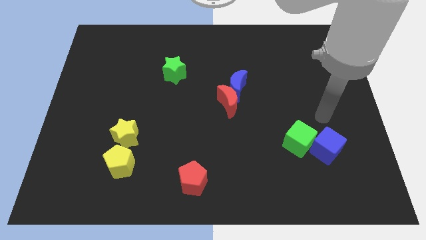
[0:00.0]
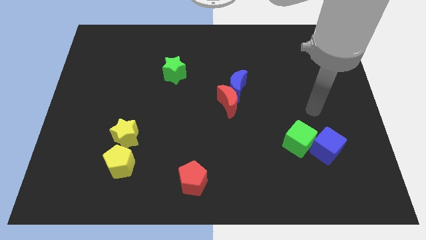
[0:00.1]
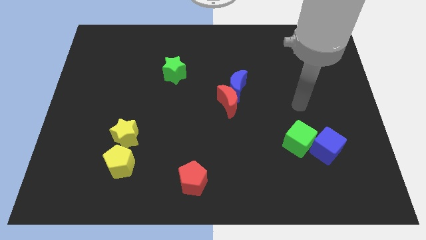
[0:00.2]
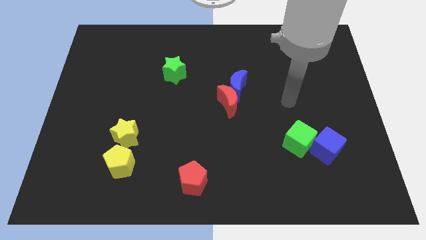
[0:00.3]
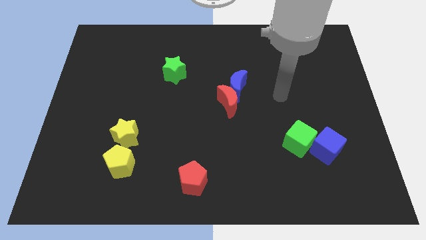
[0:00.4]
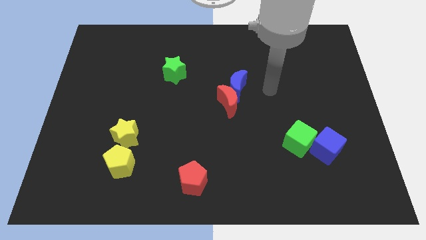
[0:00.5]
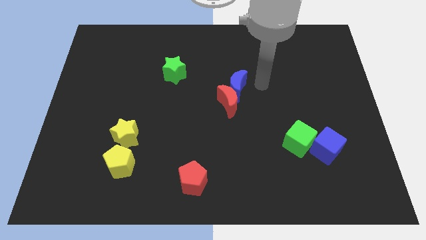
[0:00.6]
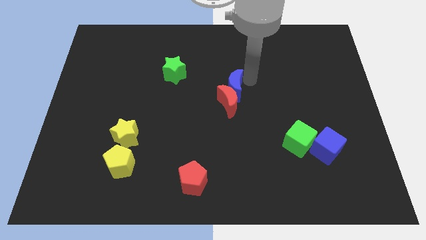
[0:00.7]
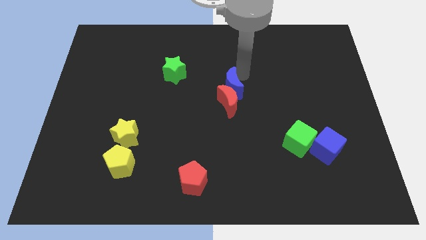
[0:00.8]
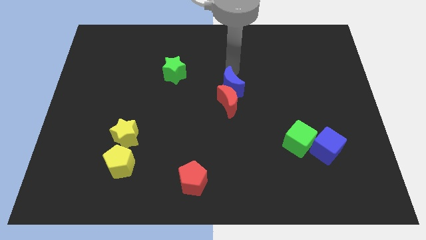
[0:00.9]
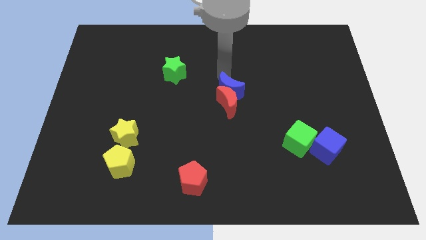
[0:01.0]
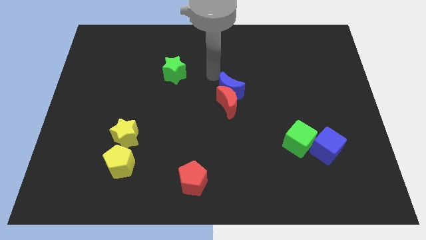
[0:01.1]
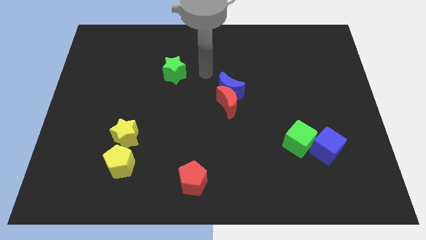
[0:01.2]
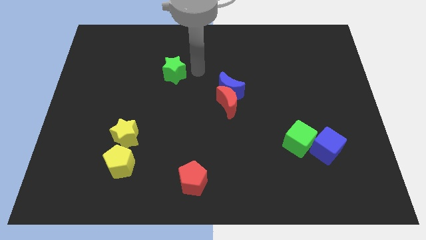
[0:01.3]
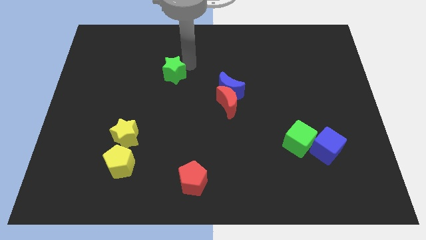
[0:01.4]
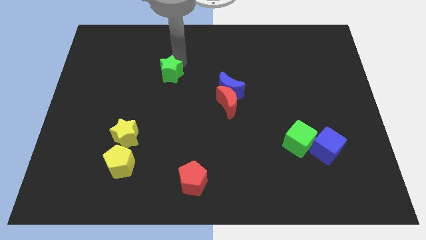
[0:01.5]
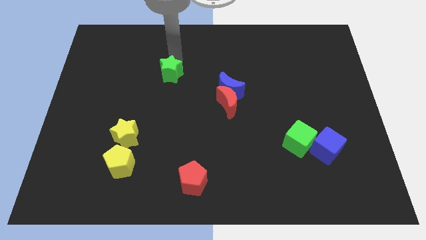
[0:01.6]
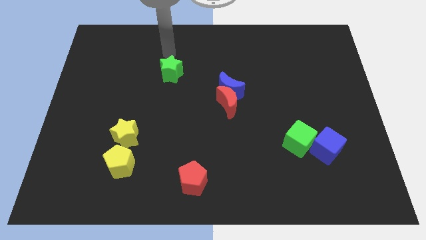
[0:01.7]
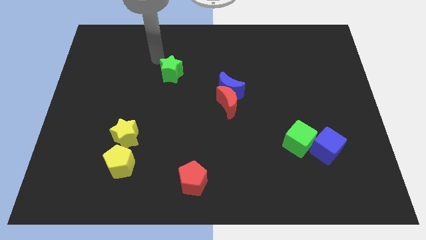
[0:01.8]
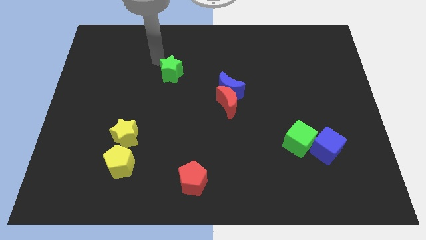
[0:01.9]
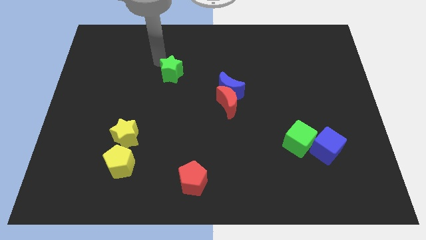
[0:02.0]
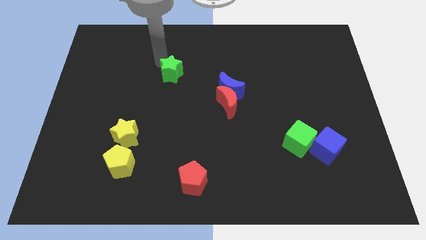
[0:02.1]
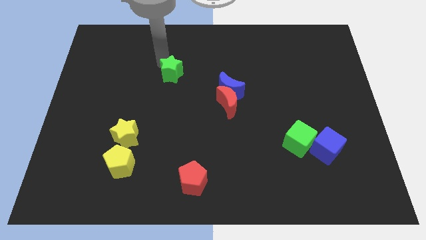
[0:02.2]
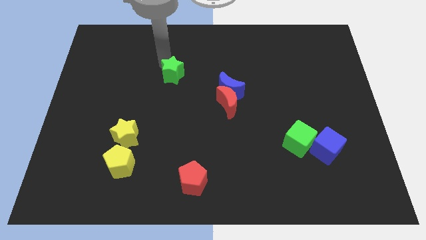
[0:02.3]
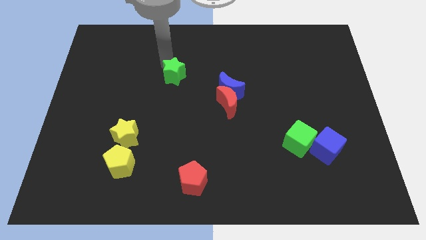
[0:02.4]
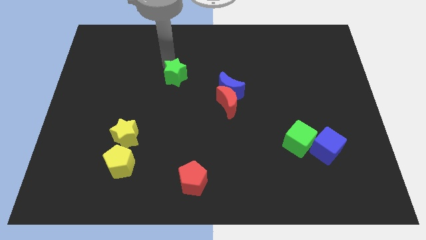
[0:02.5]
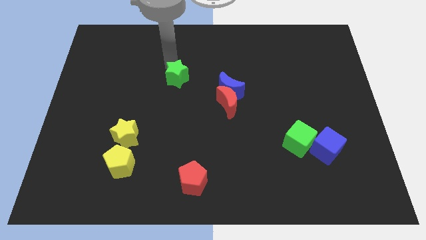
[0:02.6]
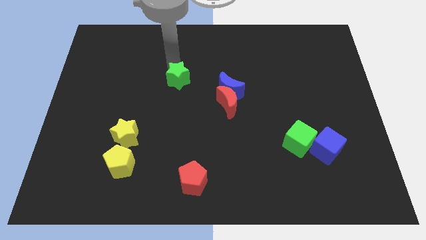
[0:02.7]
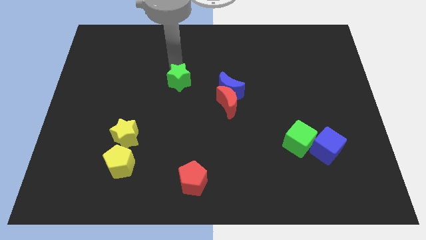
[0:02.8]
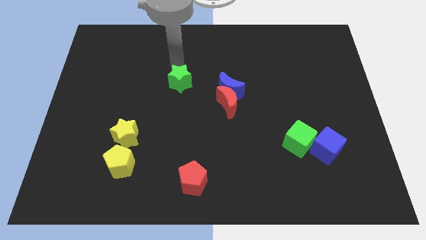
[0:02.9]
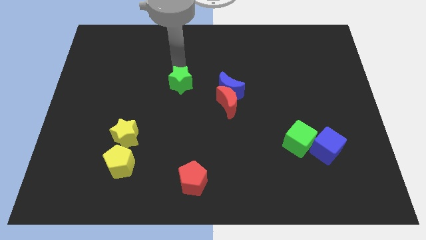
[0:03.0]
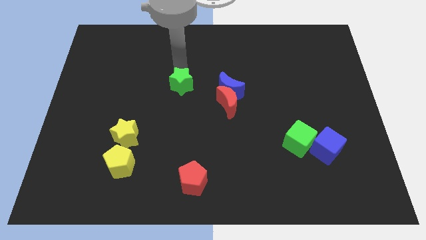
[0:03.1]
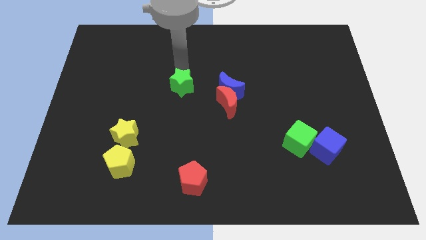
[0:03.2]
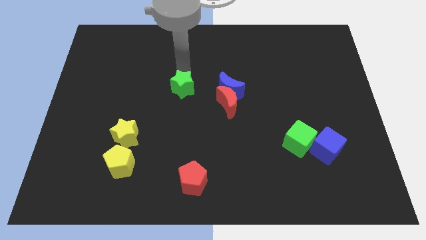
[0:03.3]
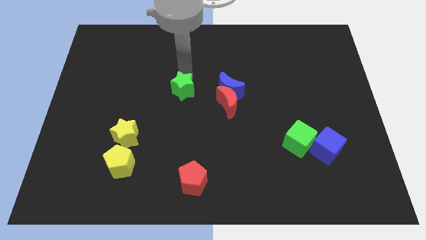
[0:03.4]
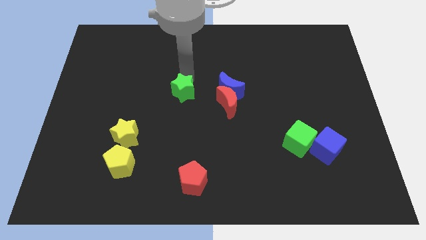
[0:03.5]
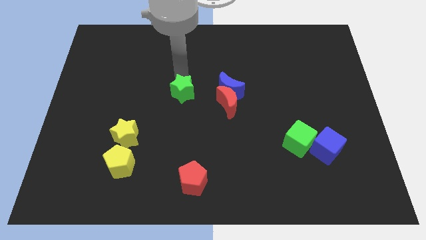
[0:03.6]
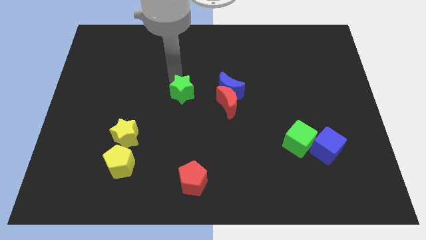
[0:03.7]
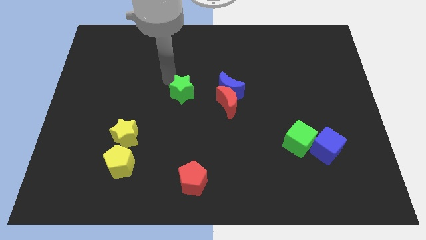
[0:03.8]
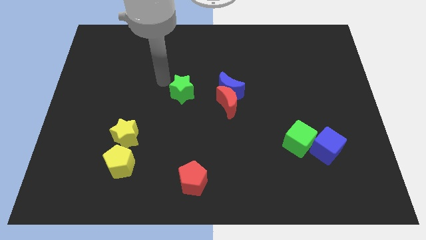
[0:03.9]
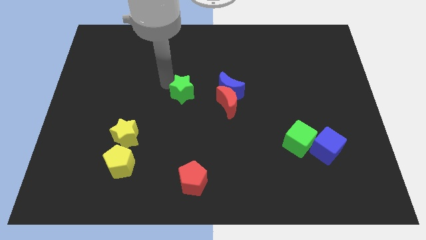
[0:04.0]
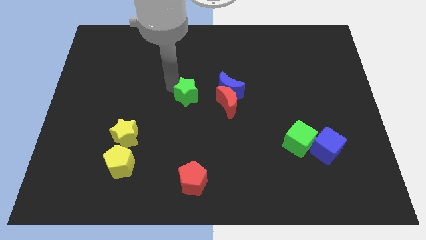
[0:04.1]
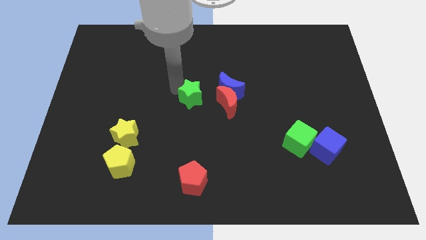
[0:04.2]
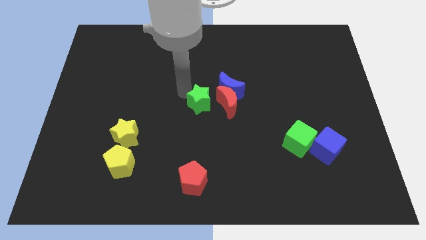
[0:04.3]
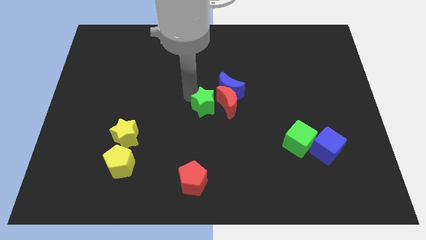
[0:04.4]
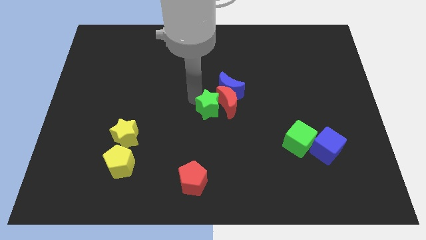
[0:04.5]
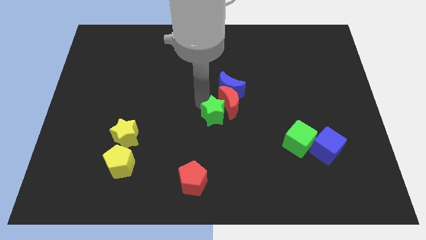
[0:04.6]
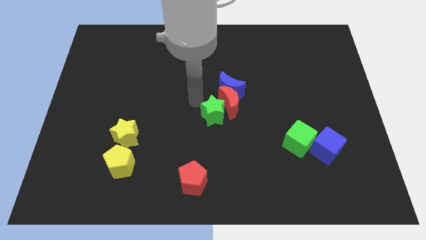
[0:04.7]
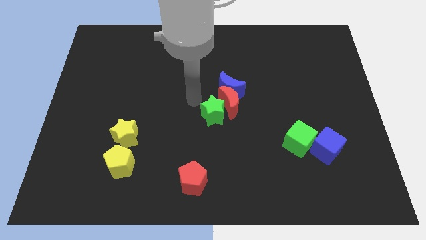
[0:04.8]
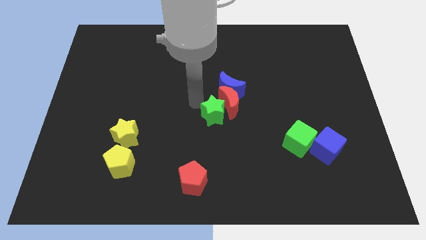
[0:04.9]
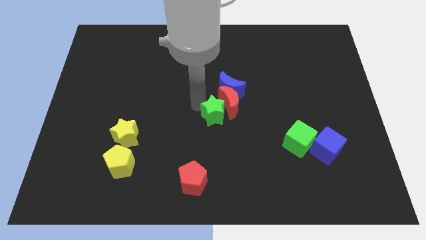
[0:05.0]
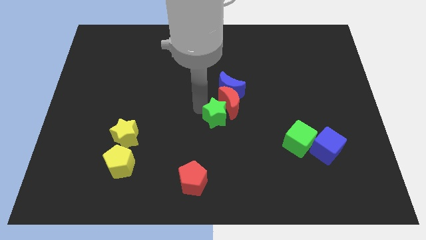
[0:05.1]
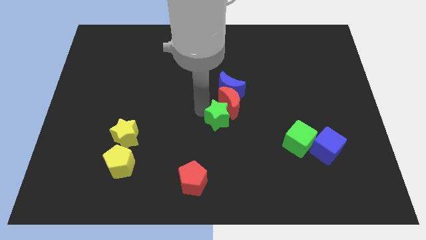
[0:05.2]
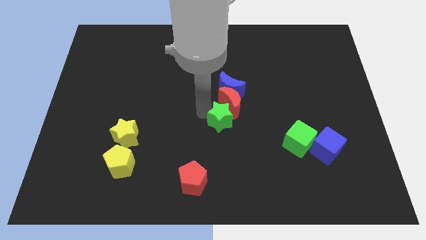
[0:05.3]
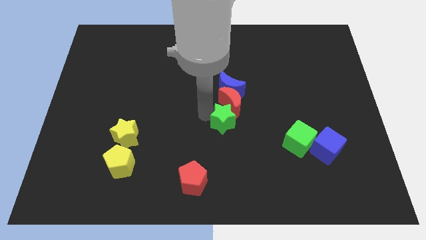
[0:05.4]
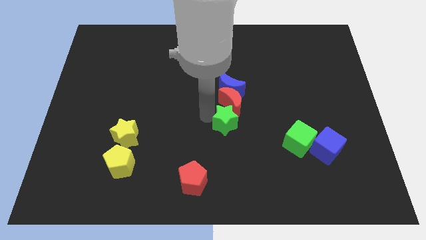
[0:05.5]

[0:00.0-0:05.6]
move the green star down and then right

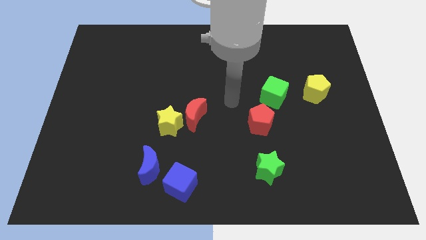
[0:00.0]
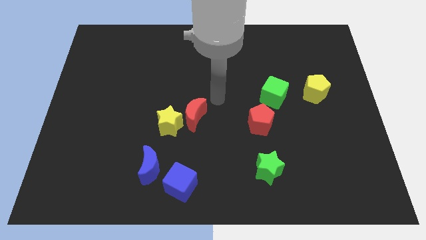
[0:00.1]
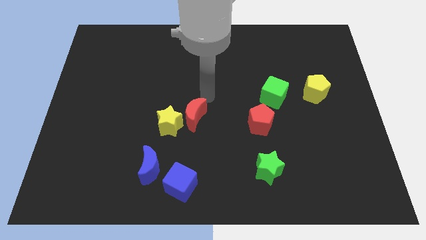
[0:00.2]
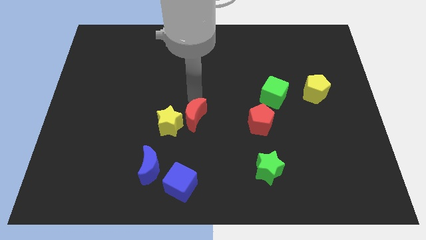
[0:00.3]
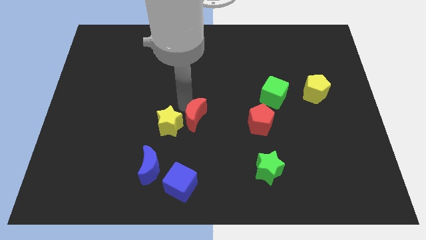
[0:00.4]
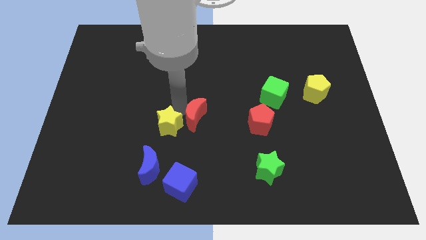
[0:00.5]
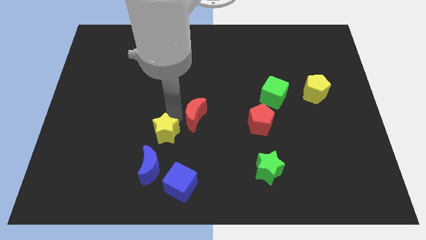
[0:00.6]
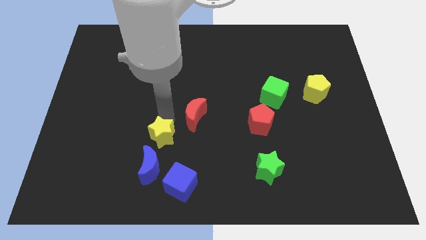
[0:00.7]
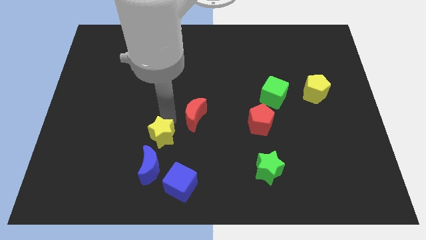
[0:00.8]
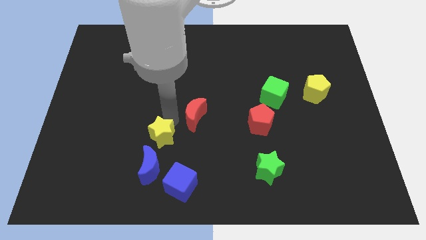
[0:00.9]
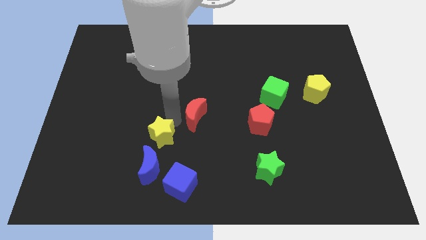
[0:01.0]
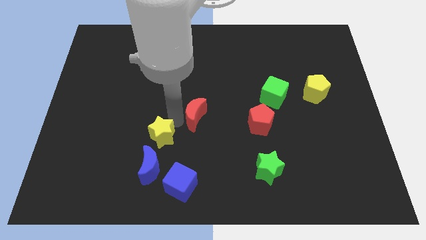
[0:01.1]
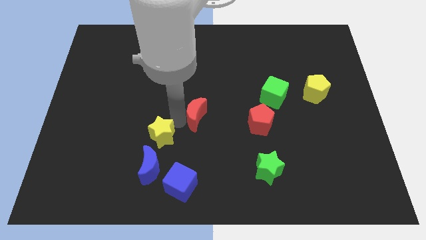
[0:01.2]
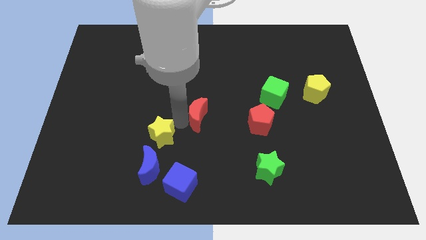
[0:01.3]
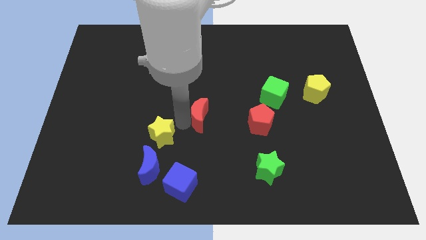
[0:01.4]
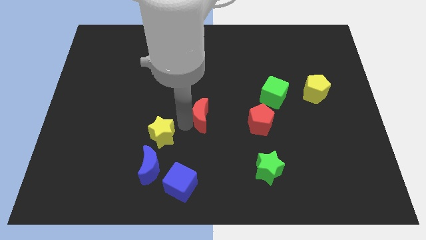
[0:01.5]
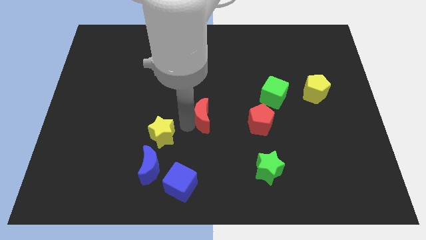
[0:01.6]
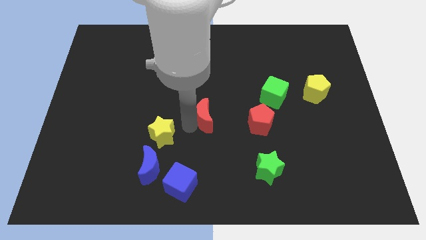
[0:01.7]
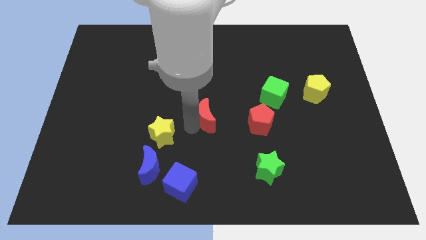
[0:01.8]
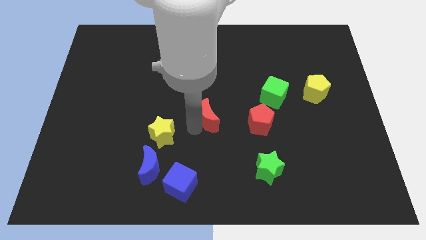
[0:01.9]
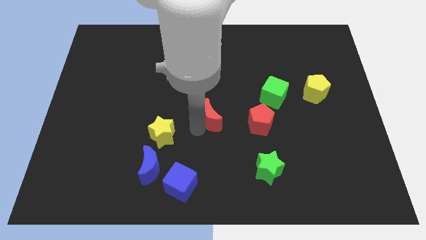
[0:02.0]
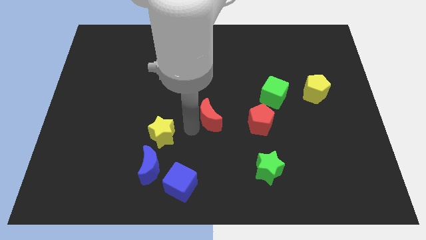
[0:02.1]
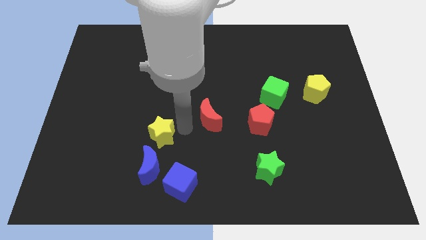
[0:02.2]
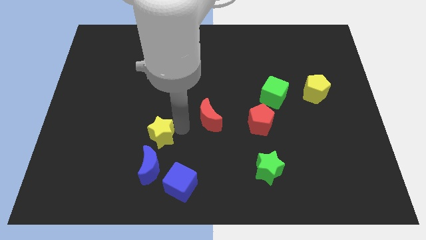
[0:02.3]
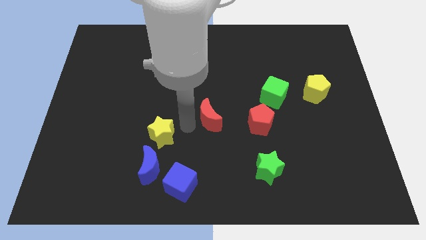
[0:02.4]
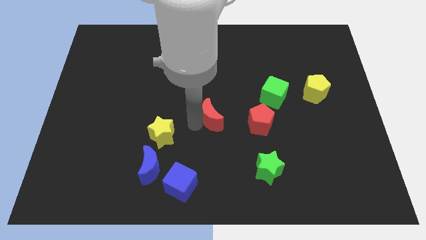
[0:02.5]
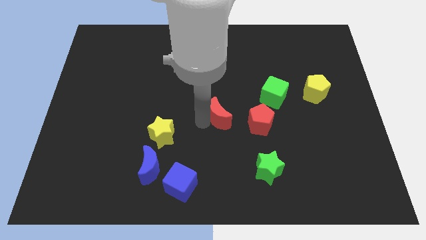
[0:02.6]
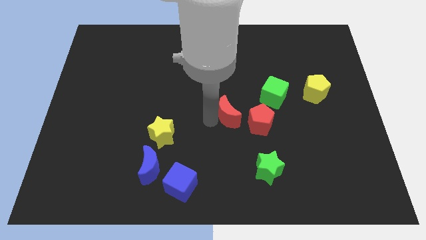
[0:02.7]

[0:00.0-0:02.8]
slightly slide the red moon right
